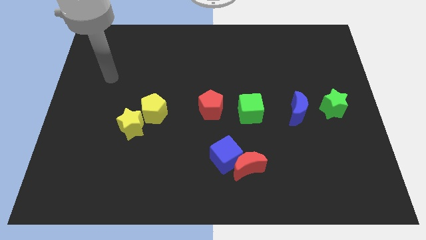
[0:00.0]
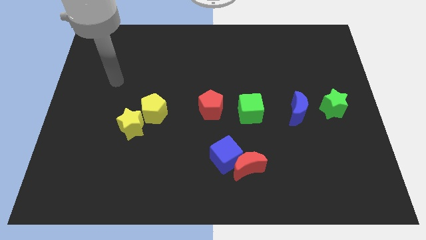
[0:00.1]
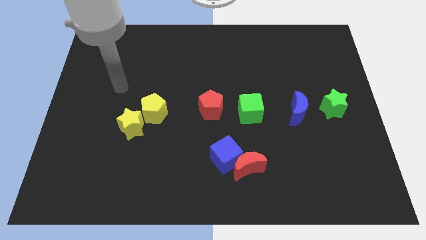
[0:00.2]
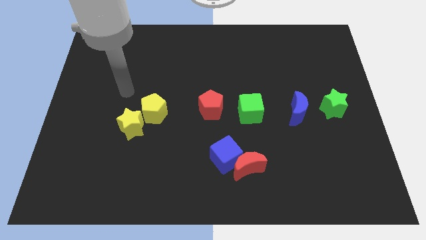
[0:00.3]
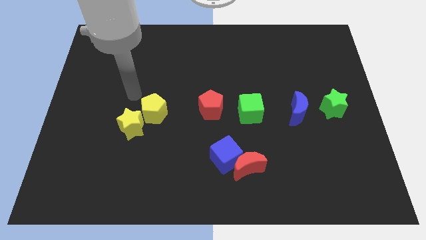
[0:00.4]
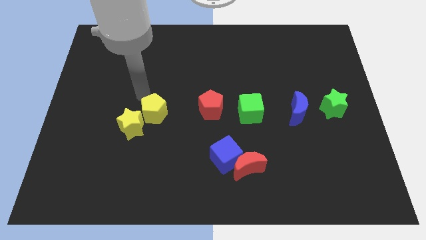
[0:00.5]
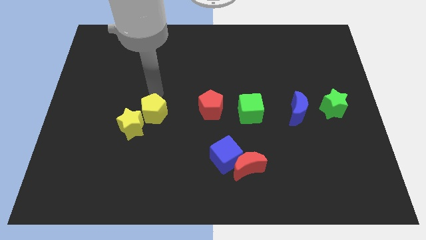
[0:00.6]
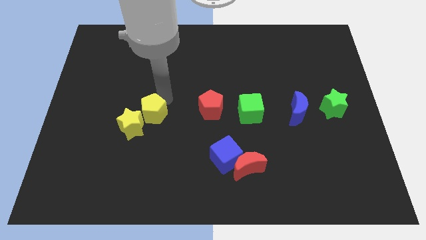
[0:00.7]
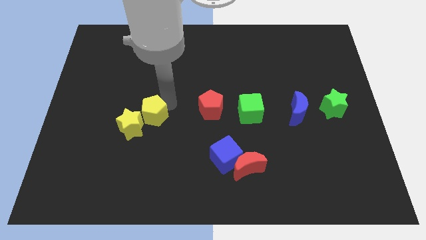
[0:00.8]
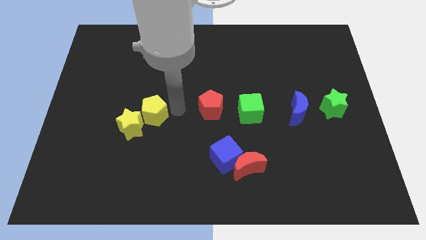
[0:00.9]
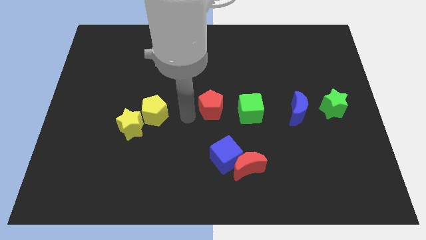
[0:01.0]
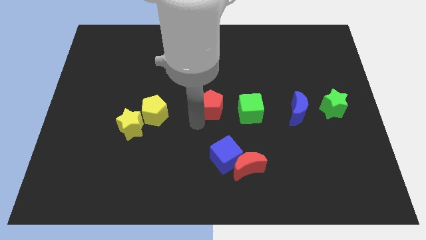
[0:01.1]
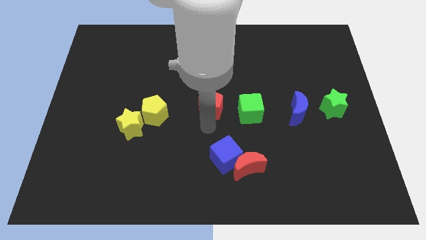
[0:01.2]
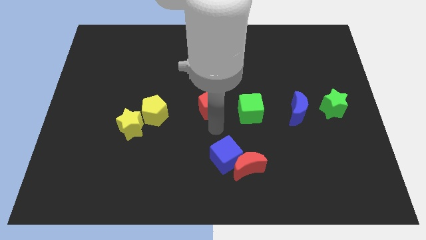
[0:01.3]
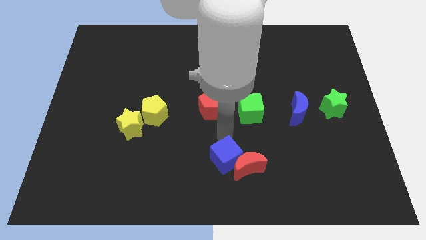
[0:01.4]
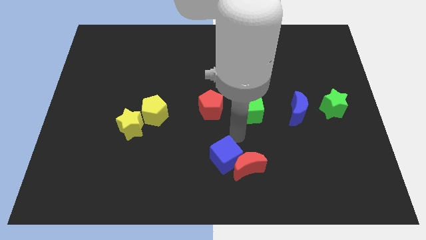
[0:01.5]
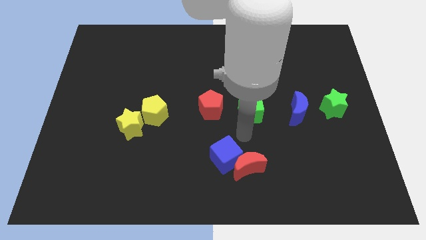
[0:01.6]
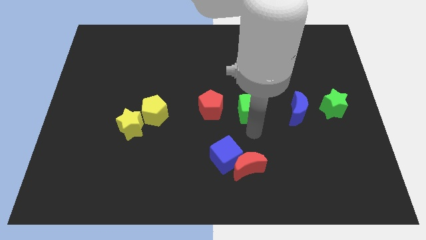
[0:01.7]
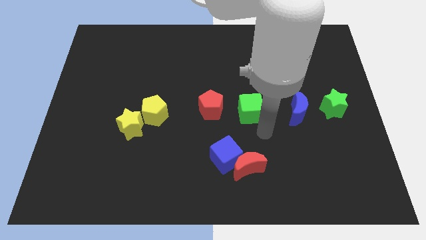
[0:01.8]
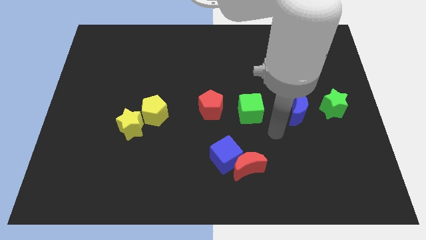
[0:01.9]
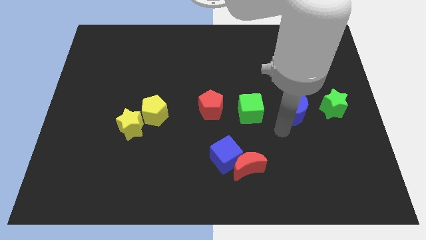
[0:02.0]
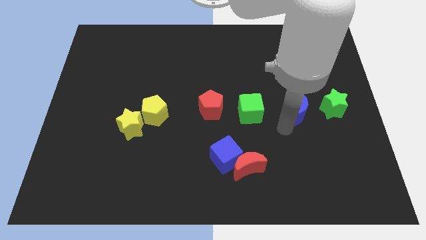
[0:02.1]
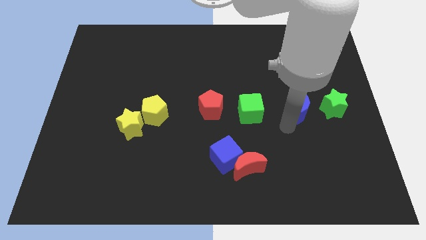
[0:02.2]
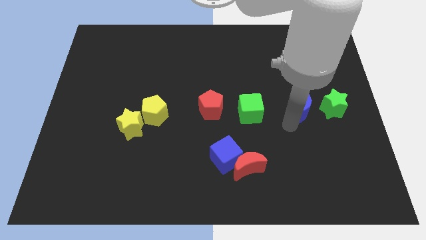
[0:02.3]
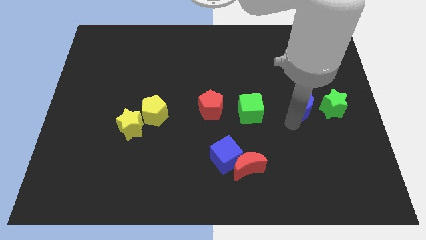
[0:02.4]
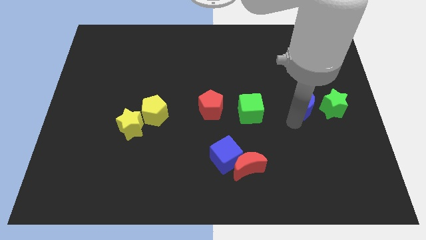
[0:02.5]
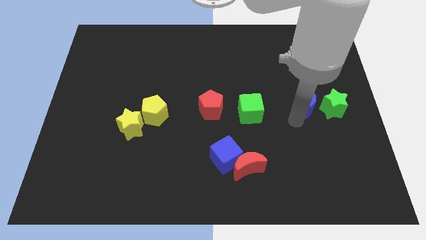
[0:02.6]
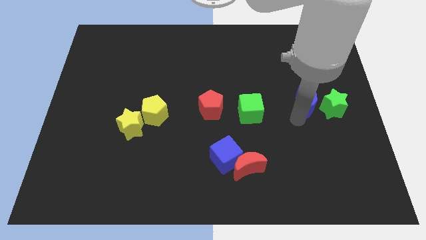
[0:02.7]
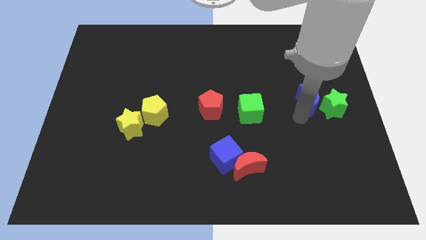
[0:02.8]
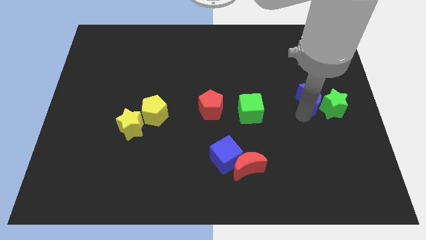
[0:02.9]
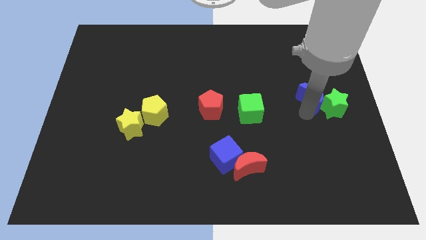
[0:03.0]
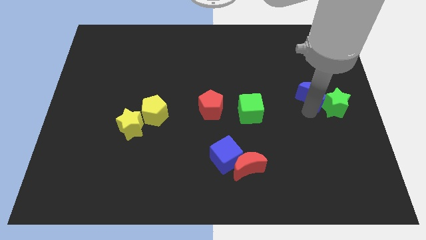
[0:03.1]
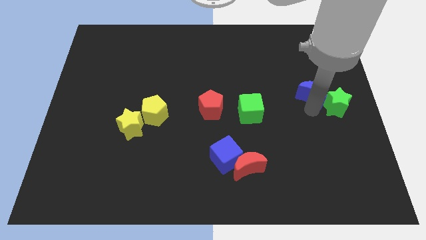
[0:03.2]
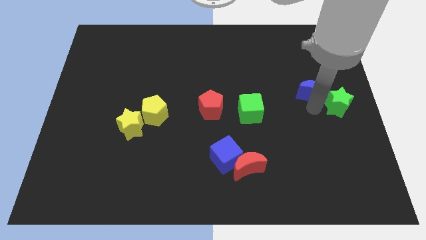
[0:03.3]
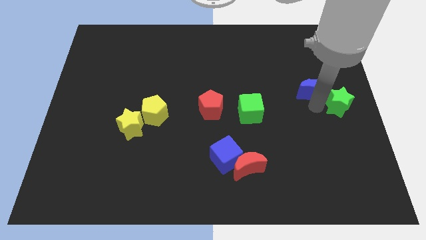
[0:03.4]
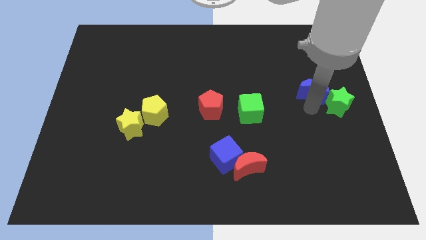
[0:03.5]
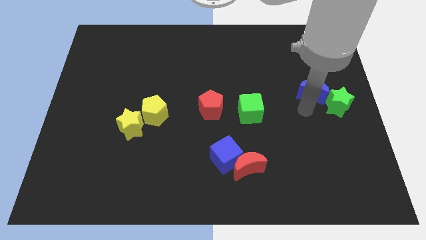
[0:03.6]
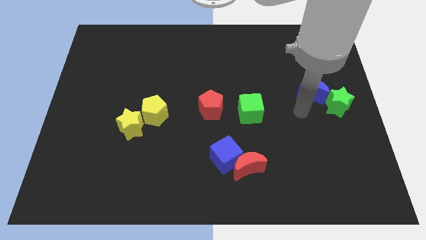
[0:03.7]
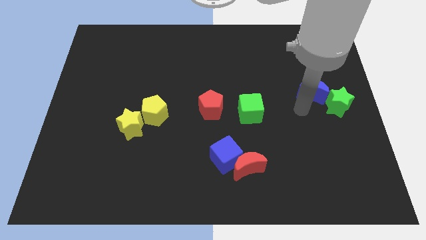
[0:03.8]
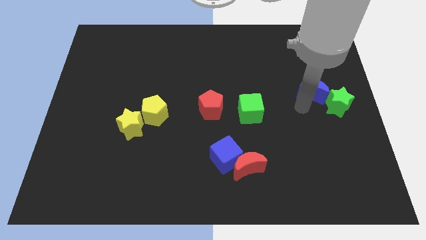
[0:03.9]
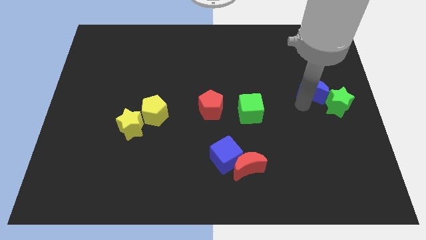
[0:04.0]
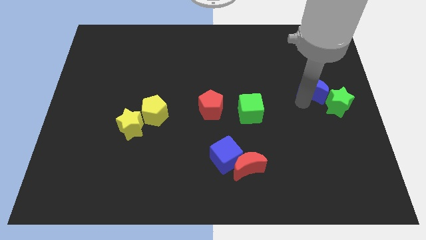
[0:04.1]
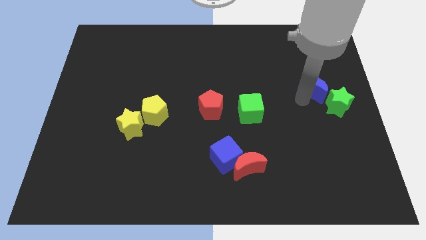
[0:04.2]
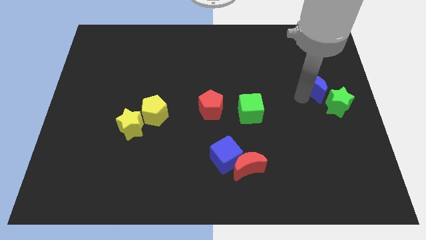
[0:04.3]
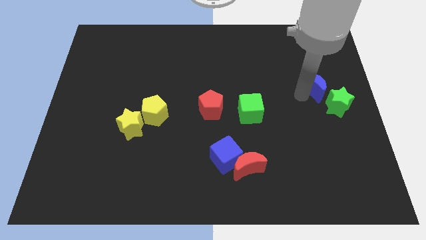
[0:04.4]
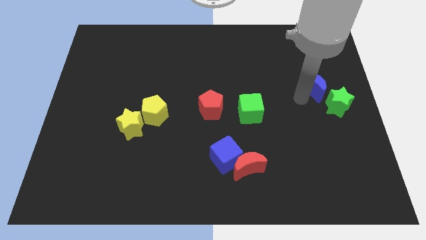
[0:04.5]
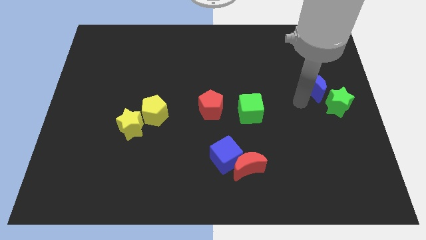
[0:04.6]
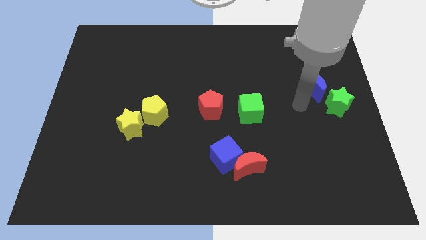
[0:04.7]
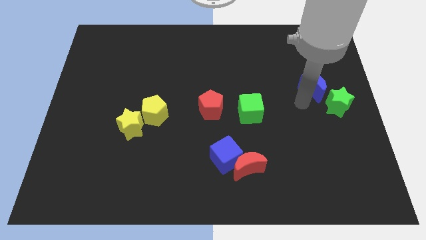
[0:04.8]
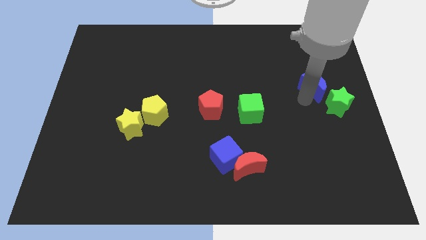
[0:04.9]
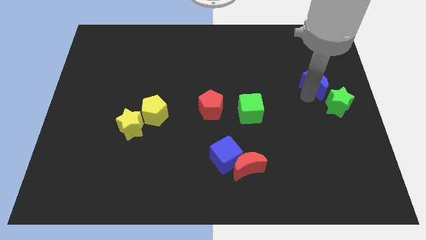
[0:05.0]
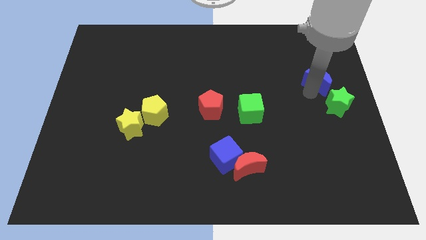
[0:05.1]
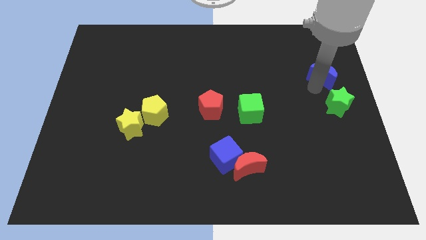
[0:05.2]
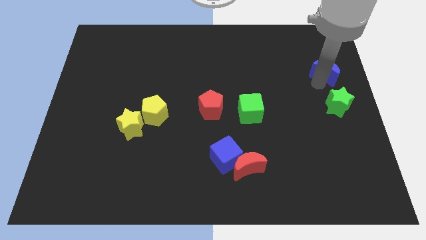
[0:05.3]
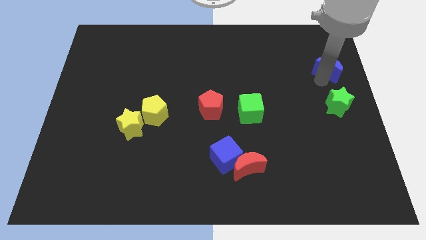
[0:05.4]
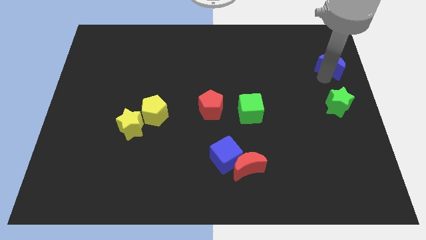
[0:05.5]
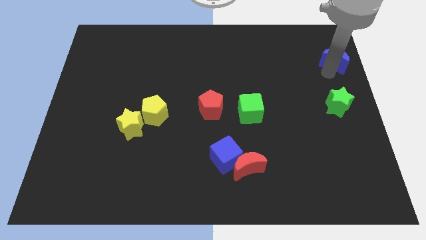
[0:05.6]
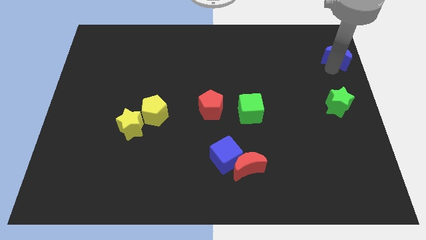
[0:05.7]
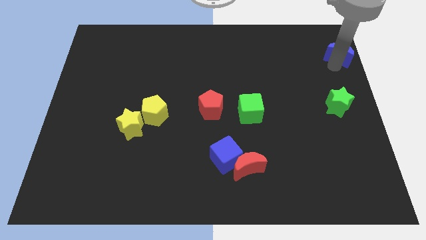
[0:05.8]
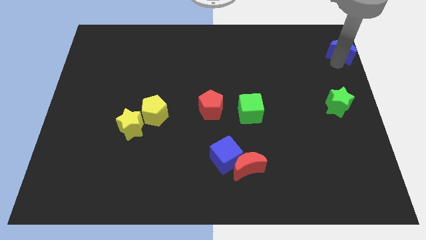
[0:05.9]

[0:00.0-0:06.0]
push the blue moon to the top right

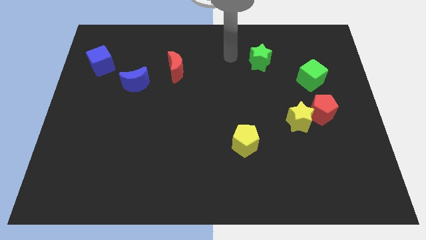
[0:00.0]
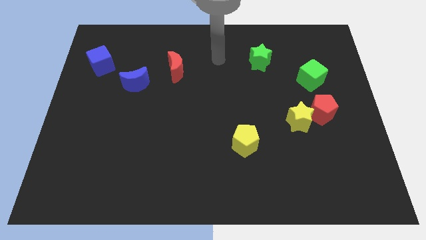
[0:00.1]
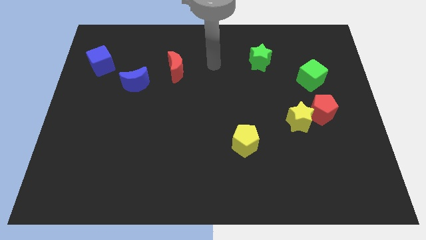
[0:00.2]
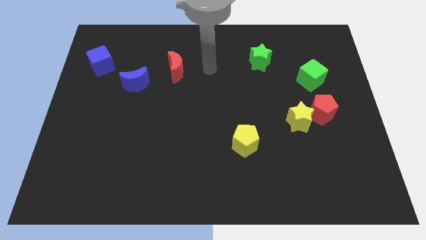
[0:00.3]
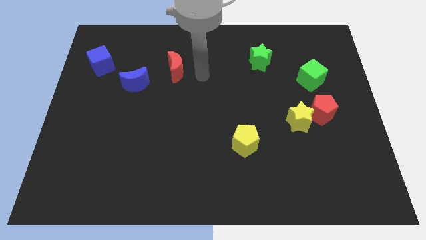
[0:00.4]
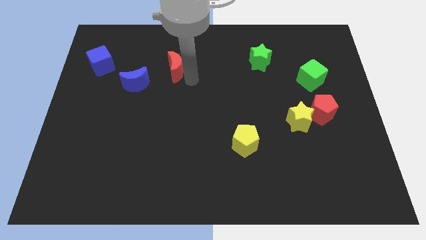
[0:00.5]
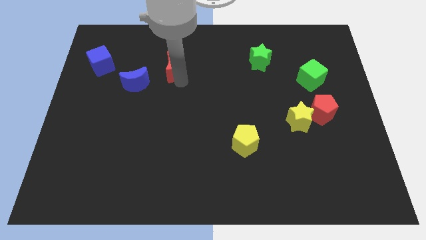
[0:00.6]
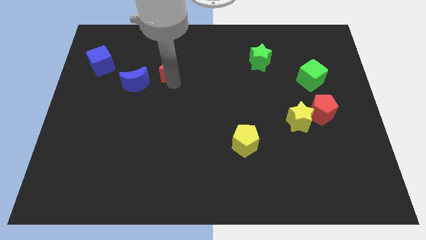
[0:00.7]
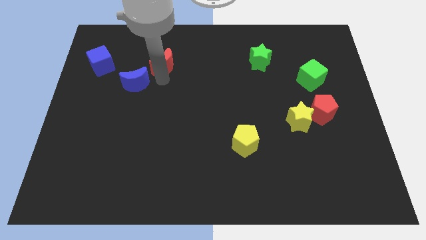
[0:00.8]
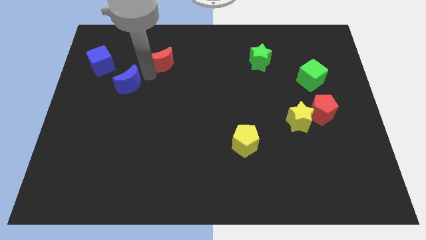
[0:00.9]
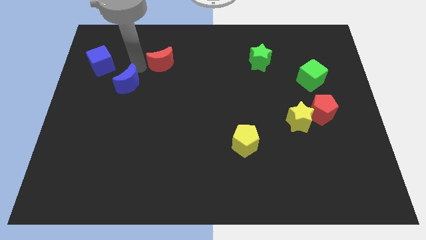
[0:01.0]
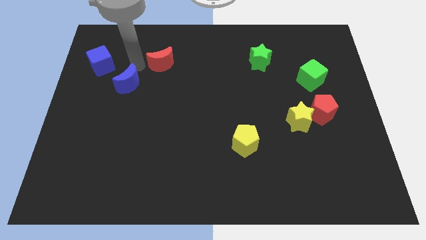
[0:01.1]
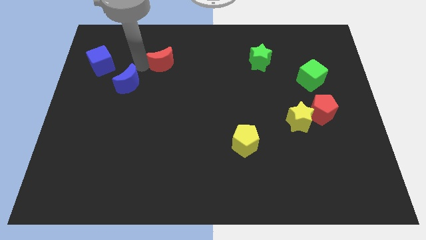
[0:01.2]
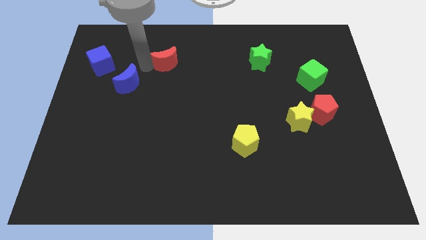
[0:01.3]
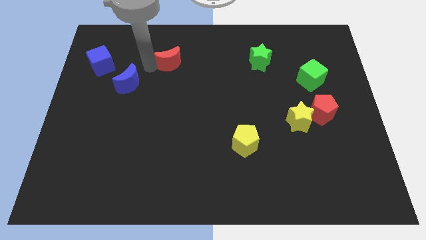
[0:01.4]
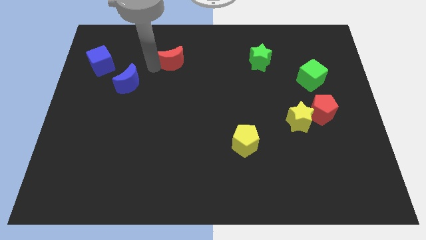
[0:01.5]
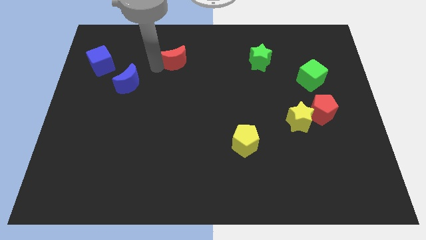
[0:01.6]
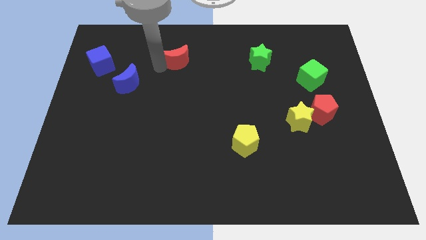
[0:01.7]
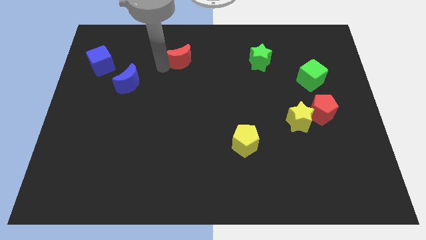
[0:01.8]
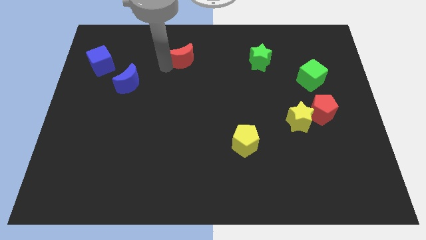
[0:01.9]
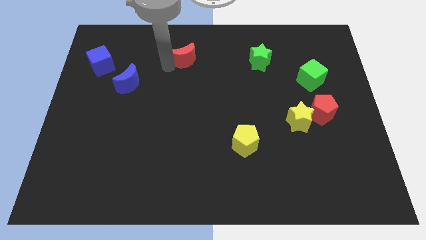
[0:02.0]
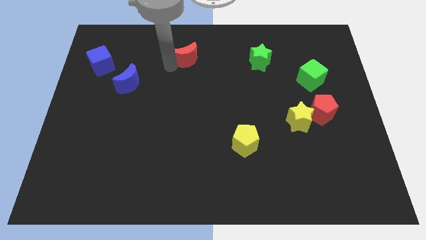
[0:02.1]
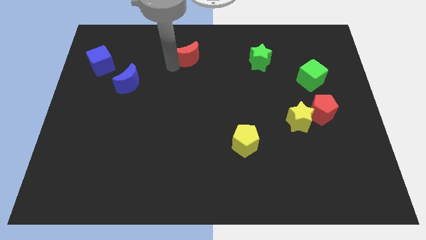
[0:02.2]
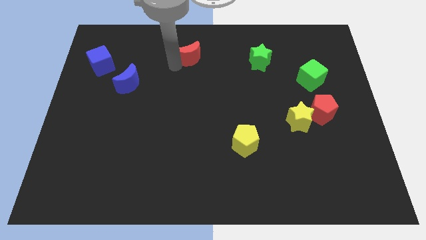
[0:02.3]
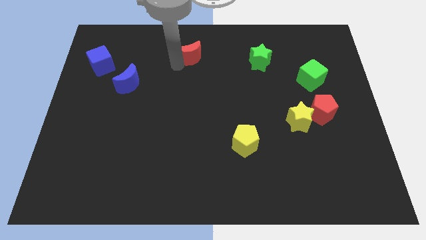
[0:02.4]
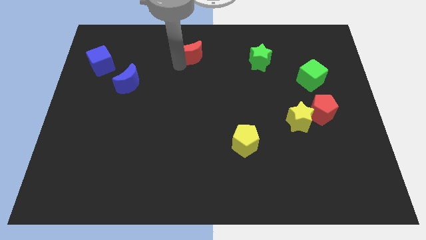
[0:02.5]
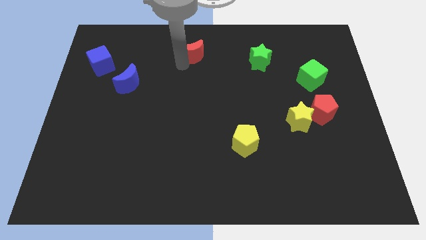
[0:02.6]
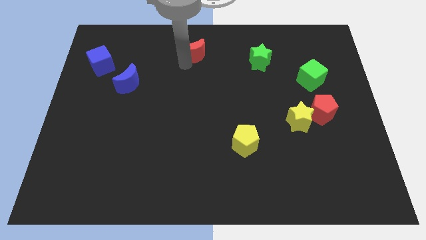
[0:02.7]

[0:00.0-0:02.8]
slide the red moon to the top
